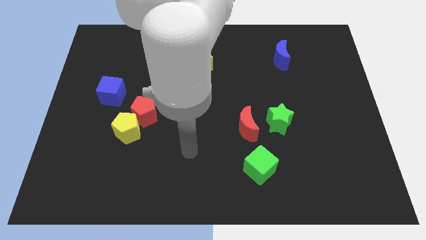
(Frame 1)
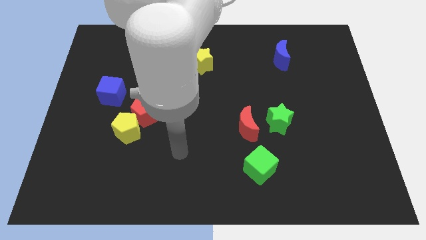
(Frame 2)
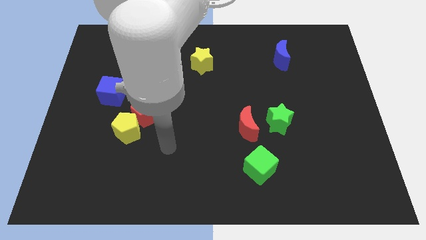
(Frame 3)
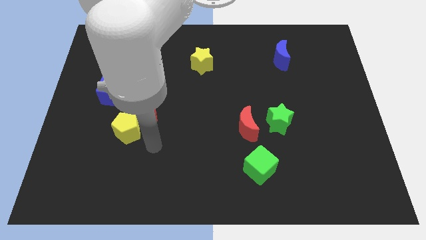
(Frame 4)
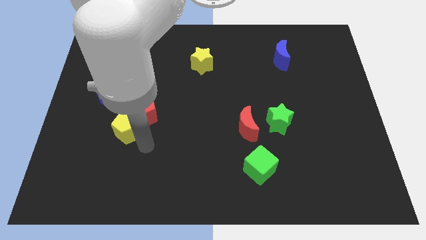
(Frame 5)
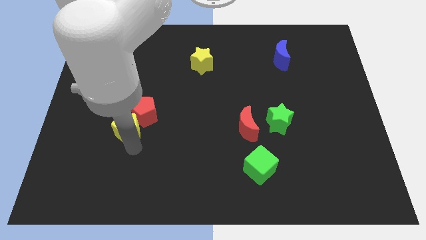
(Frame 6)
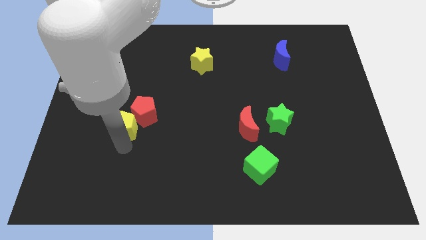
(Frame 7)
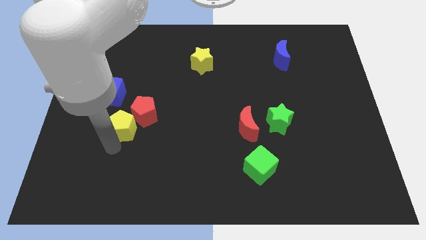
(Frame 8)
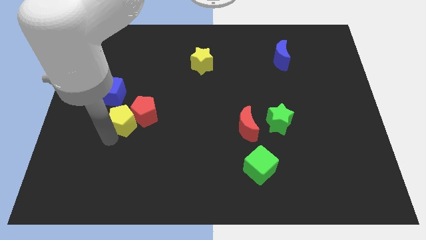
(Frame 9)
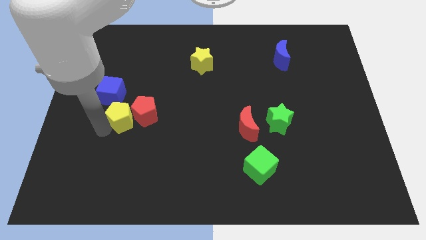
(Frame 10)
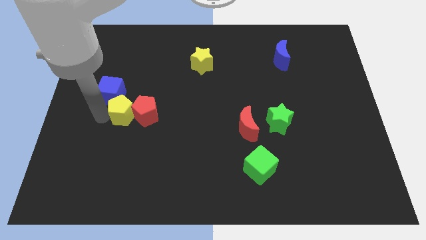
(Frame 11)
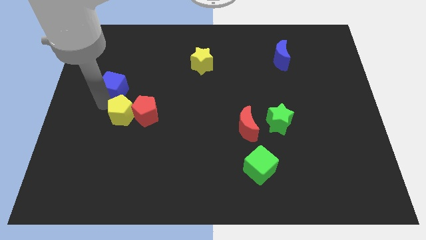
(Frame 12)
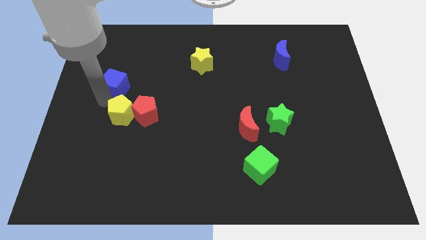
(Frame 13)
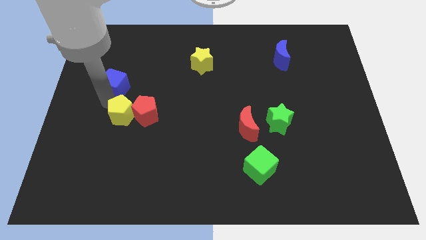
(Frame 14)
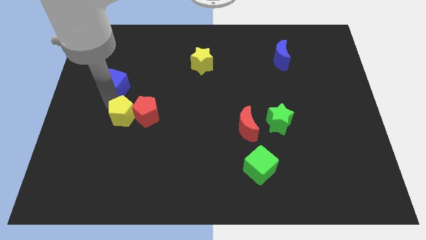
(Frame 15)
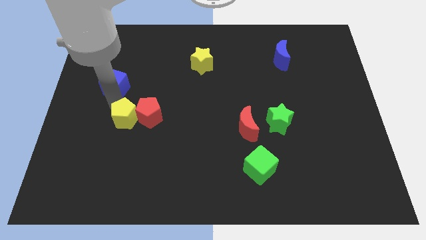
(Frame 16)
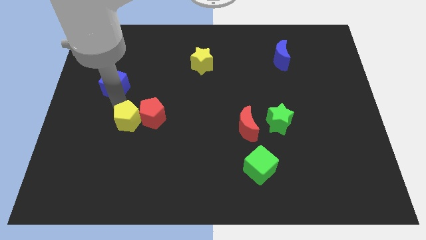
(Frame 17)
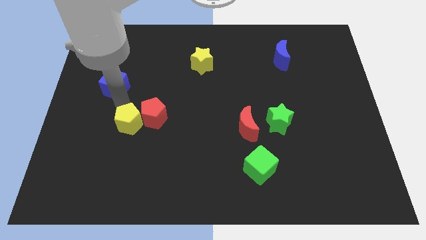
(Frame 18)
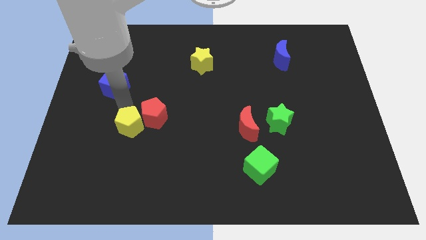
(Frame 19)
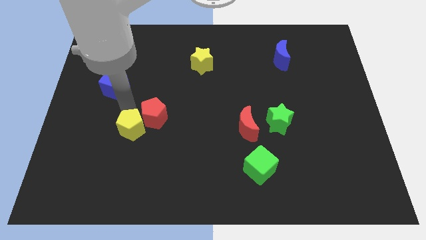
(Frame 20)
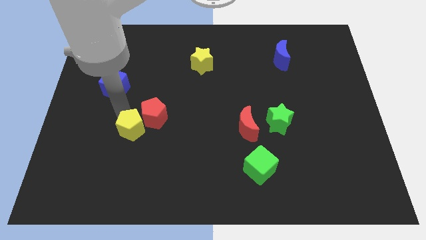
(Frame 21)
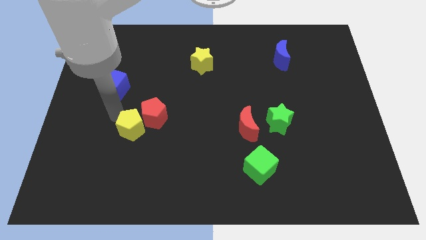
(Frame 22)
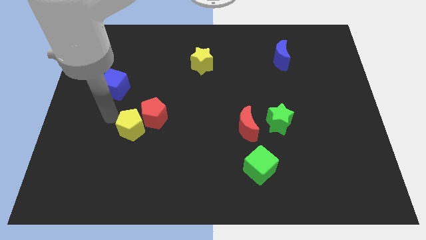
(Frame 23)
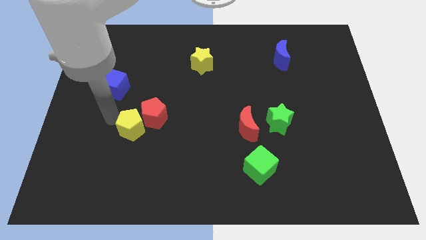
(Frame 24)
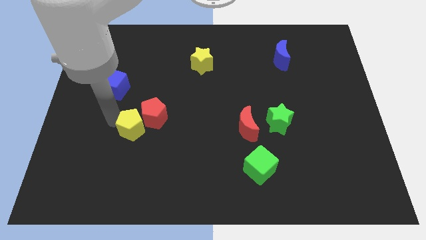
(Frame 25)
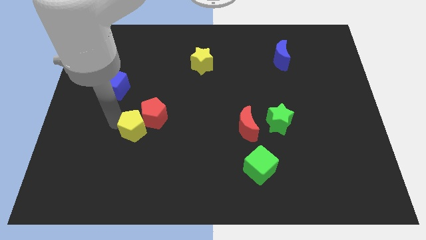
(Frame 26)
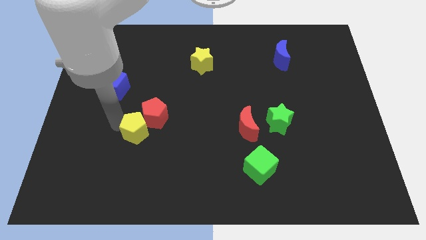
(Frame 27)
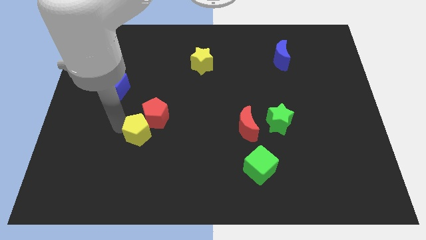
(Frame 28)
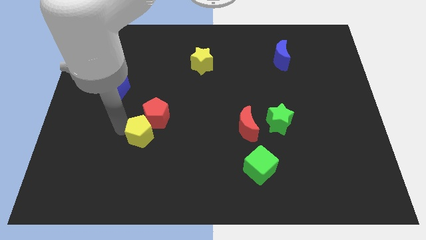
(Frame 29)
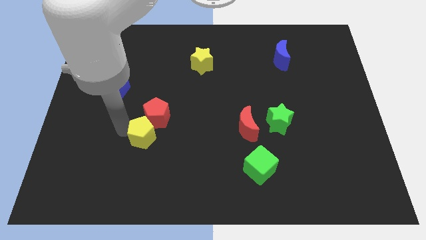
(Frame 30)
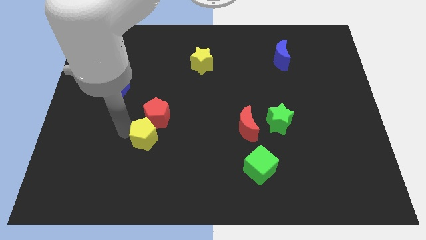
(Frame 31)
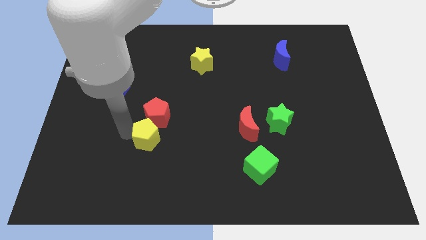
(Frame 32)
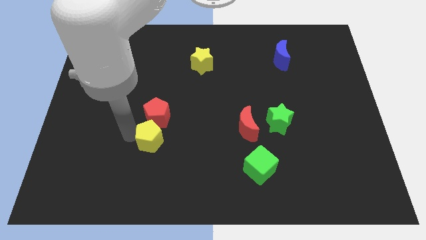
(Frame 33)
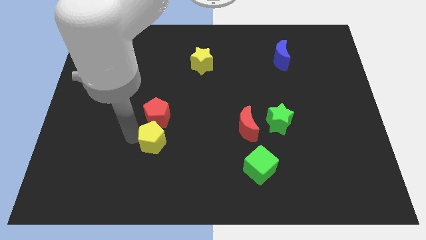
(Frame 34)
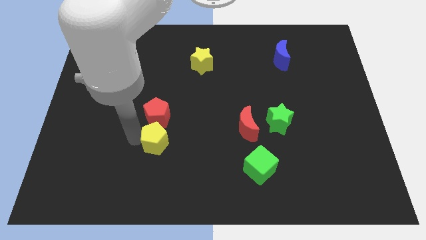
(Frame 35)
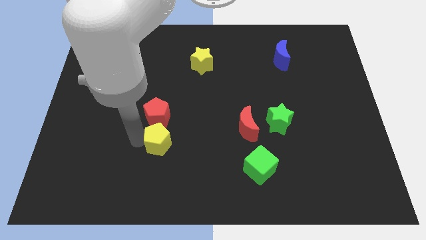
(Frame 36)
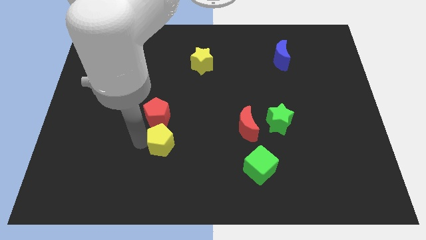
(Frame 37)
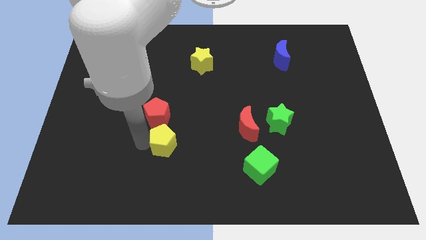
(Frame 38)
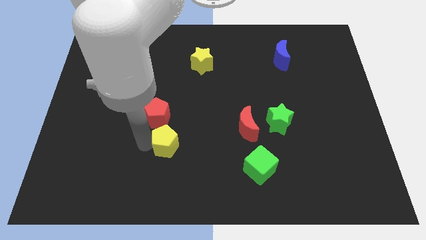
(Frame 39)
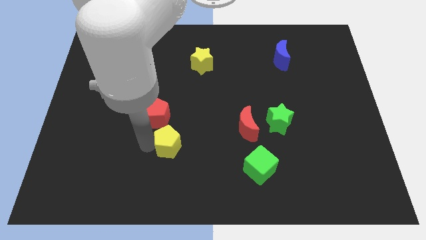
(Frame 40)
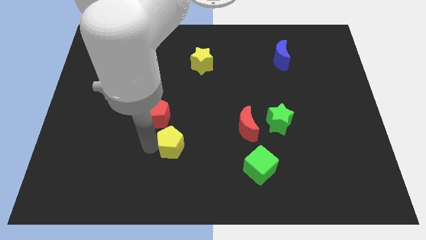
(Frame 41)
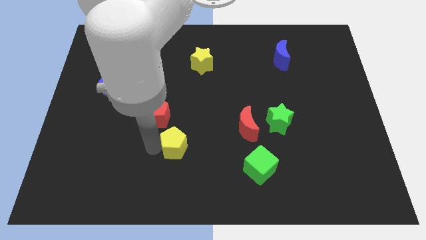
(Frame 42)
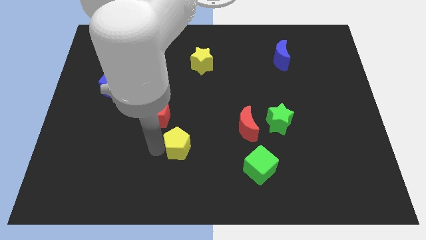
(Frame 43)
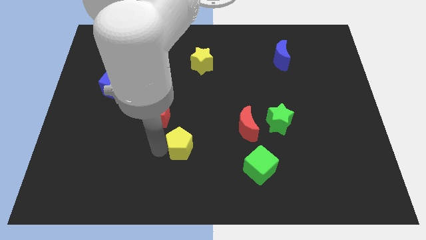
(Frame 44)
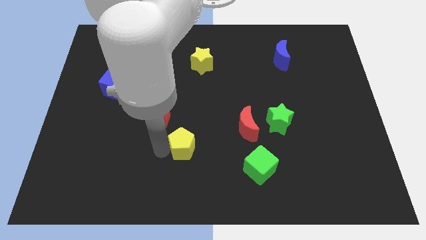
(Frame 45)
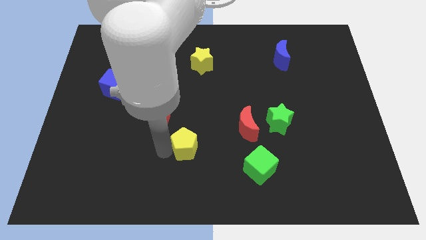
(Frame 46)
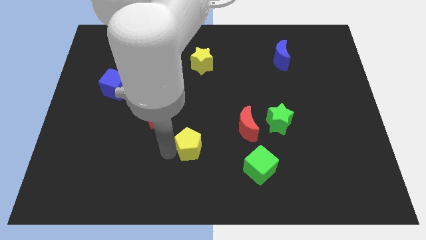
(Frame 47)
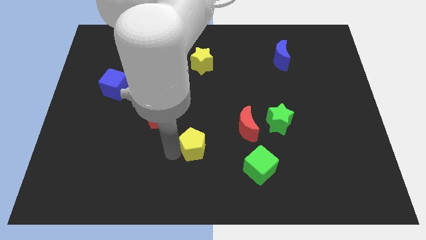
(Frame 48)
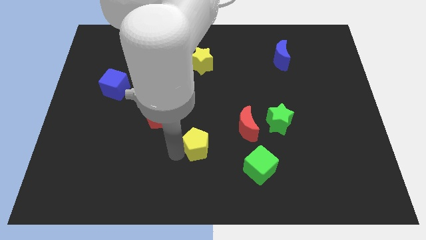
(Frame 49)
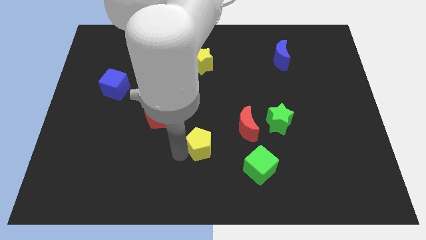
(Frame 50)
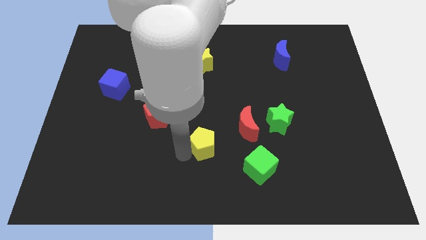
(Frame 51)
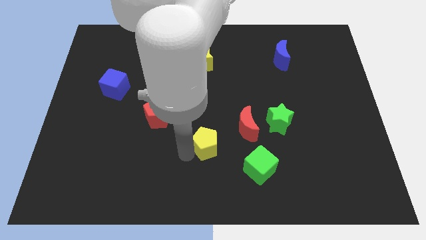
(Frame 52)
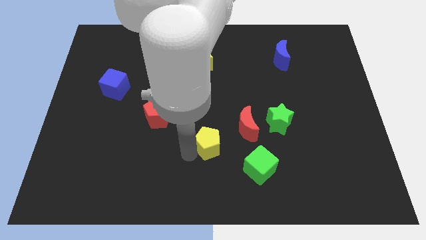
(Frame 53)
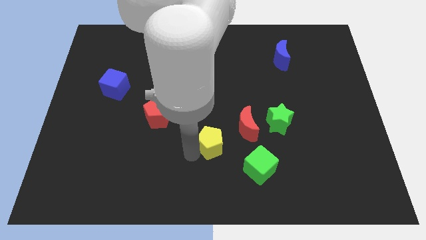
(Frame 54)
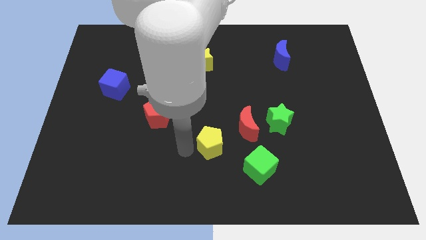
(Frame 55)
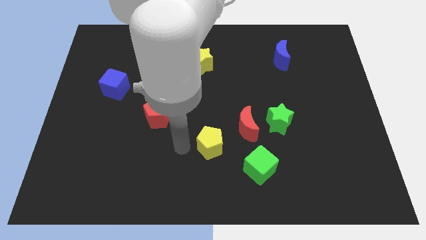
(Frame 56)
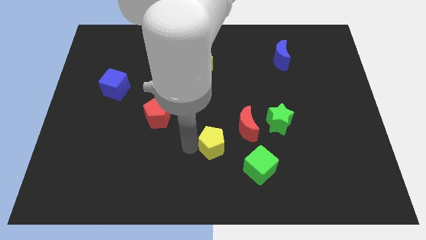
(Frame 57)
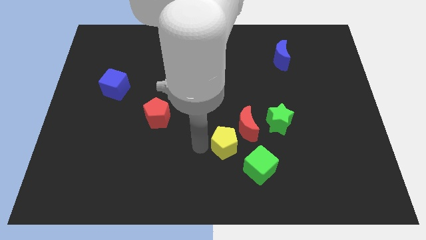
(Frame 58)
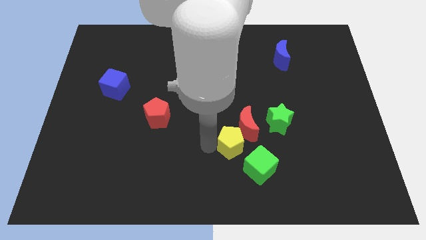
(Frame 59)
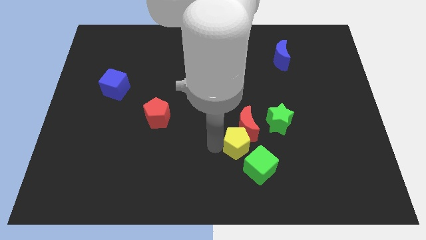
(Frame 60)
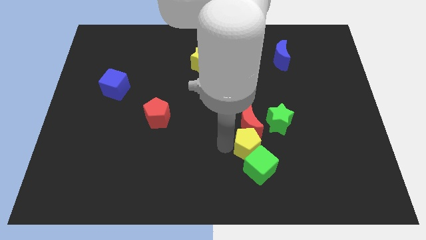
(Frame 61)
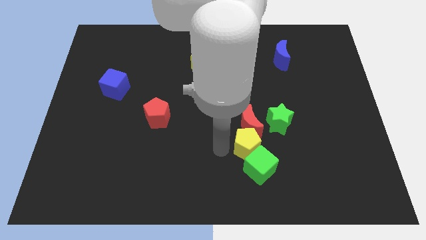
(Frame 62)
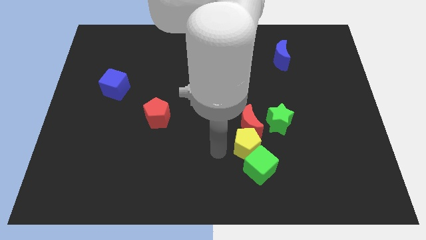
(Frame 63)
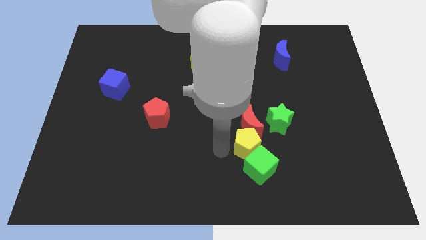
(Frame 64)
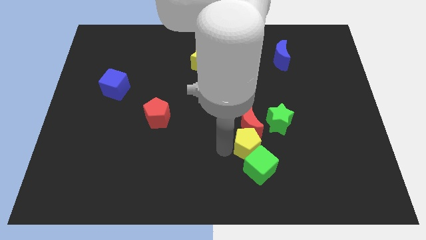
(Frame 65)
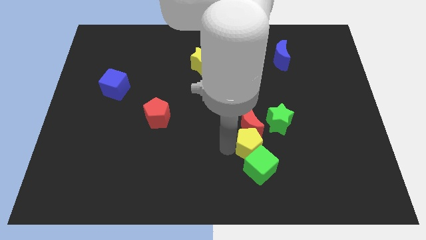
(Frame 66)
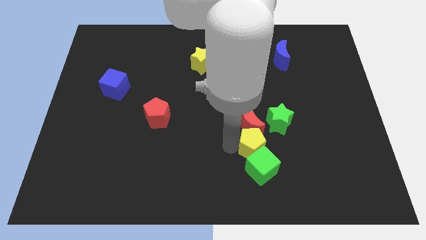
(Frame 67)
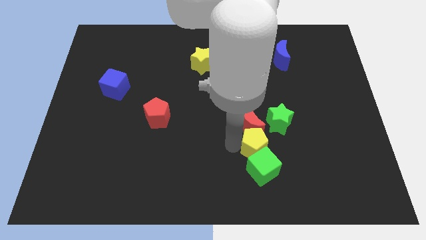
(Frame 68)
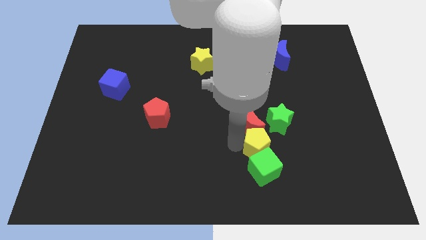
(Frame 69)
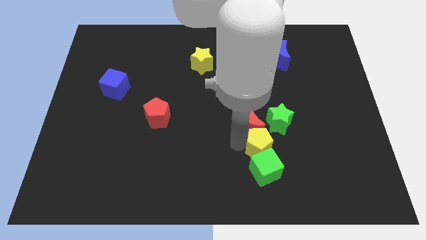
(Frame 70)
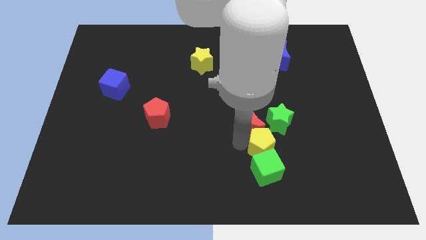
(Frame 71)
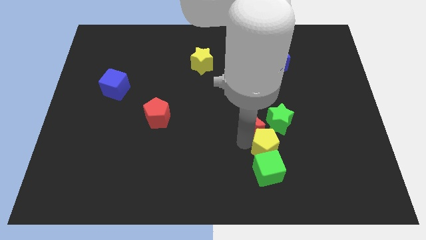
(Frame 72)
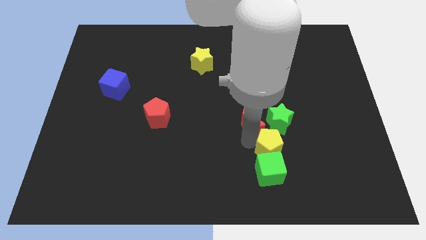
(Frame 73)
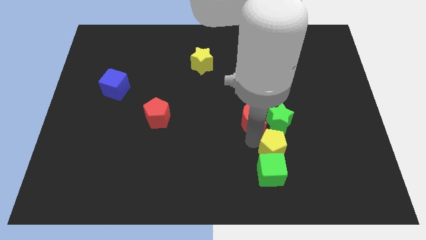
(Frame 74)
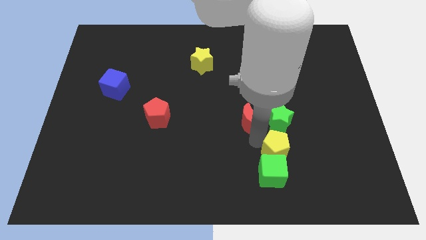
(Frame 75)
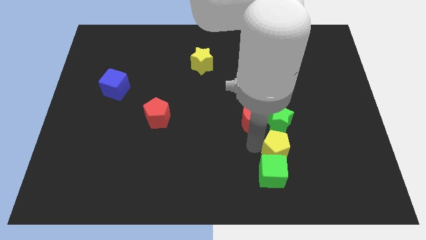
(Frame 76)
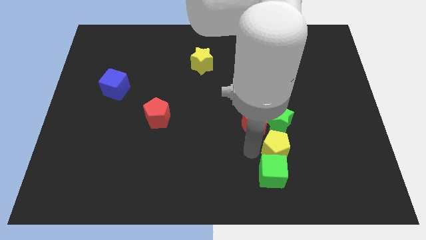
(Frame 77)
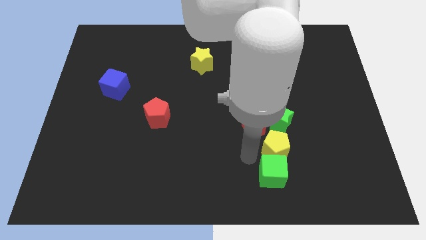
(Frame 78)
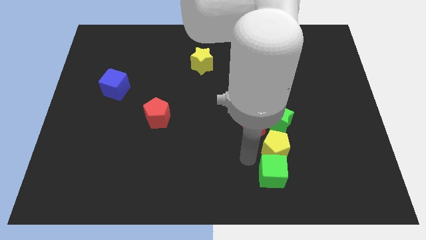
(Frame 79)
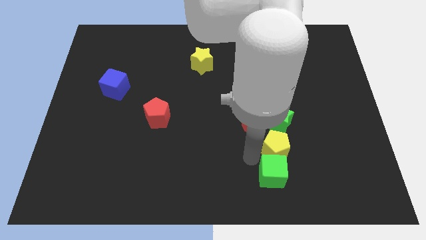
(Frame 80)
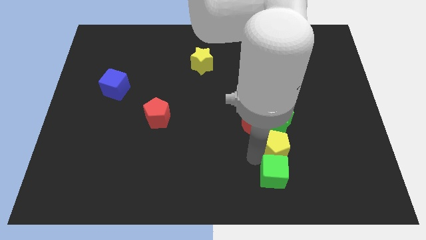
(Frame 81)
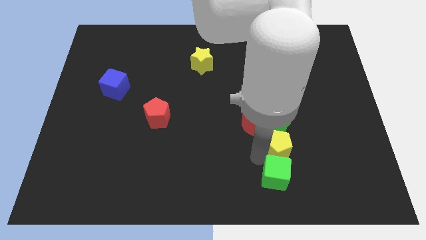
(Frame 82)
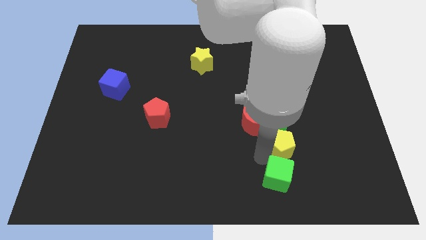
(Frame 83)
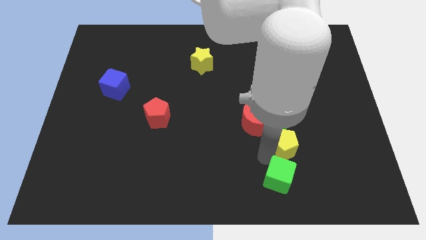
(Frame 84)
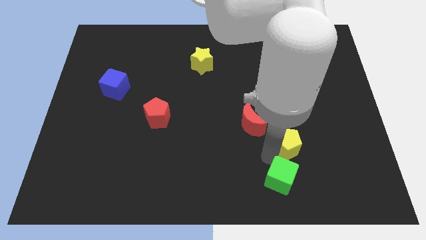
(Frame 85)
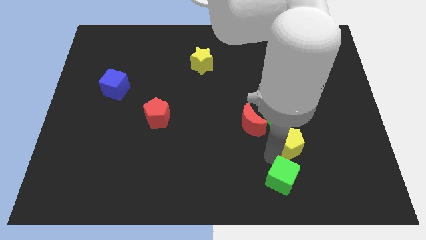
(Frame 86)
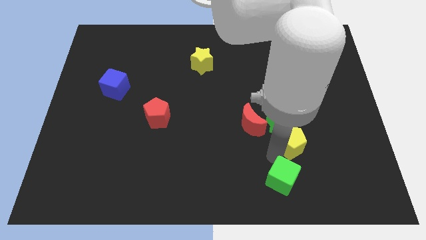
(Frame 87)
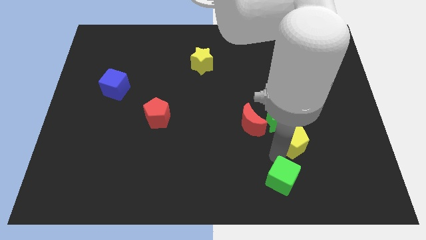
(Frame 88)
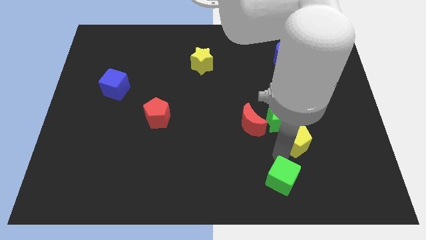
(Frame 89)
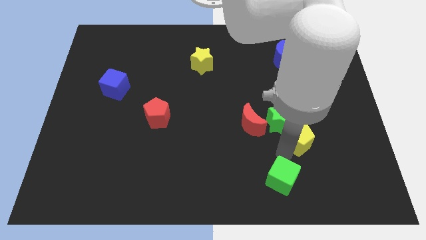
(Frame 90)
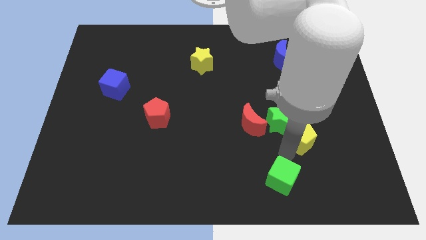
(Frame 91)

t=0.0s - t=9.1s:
slide the yellow pentagon right of the green star
